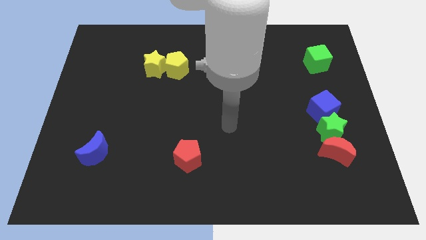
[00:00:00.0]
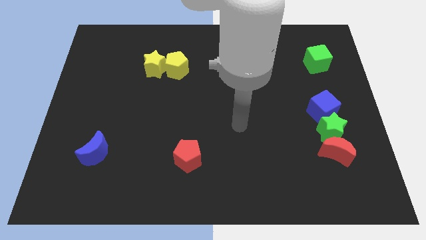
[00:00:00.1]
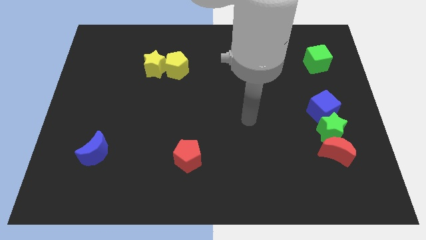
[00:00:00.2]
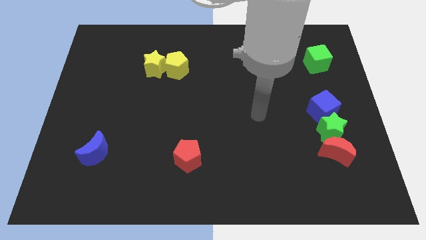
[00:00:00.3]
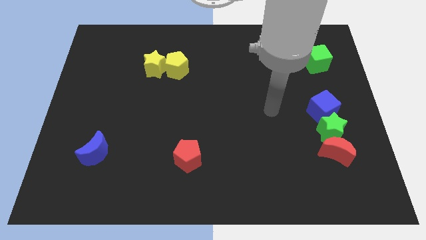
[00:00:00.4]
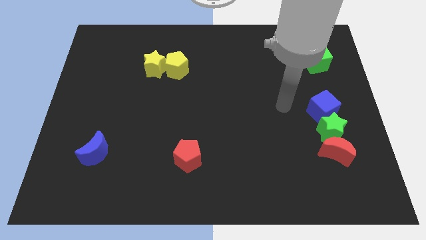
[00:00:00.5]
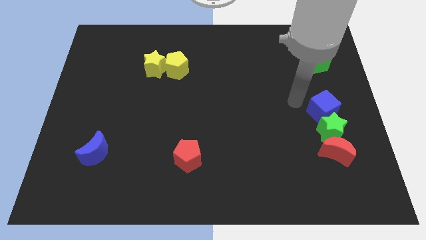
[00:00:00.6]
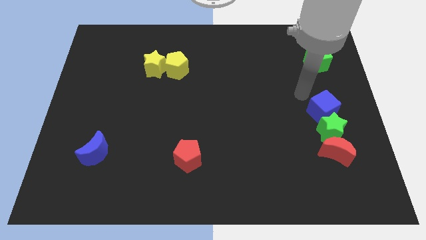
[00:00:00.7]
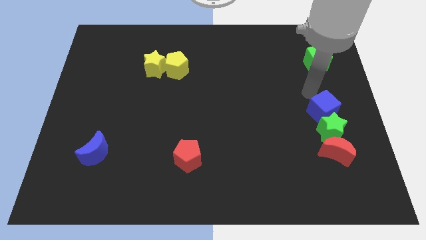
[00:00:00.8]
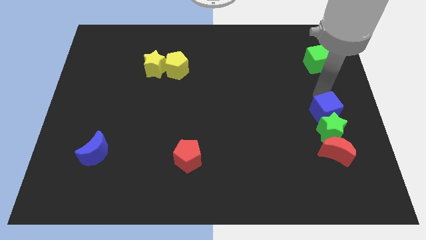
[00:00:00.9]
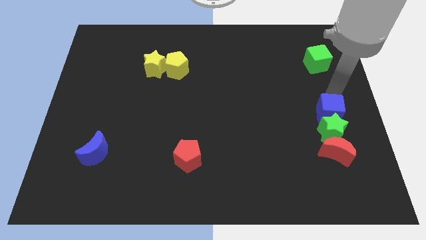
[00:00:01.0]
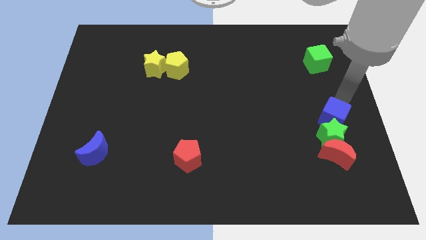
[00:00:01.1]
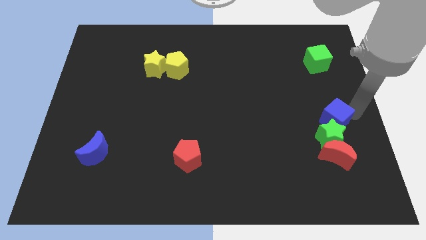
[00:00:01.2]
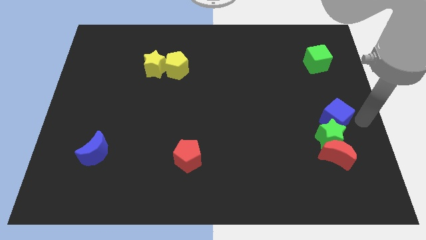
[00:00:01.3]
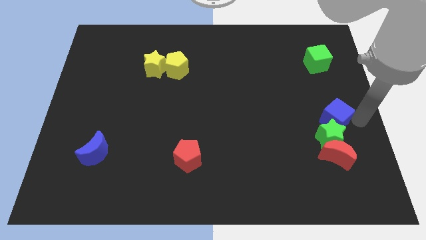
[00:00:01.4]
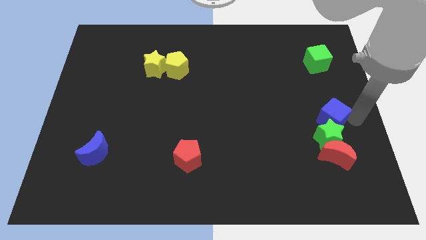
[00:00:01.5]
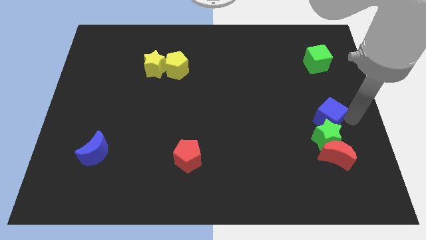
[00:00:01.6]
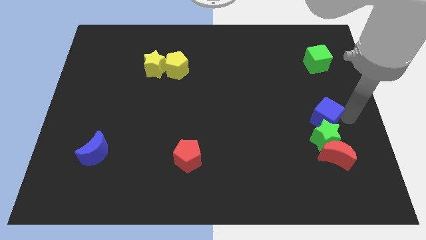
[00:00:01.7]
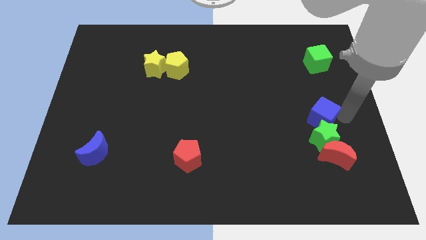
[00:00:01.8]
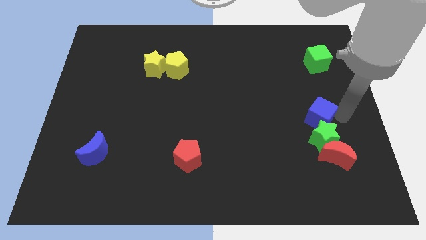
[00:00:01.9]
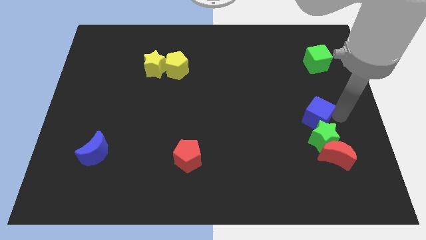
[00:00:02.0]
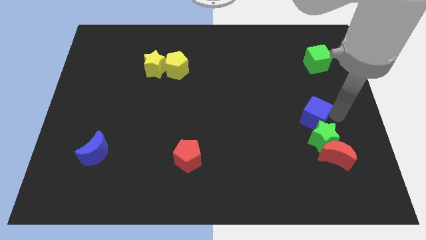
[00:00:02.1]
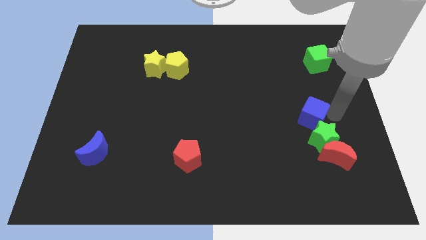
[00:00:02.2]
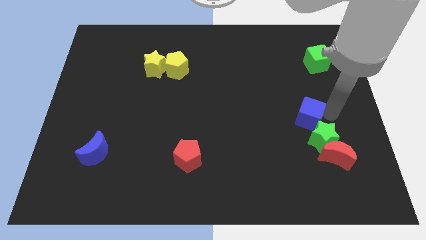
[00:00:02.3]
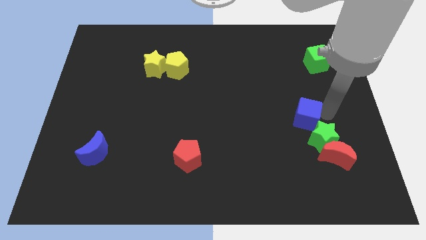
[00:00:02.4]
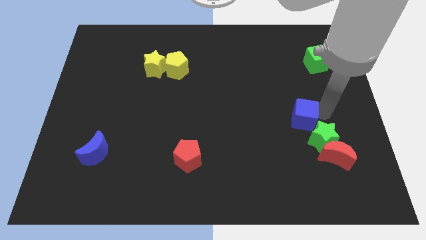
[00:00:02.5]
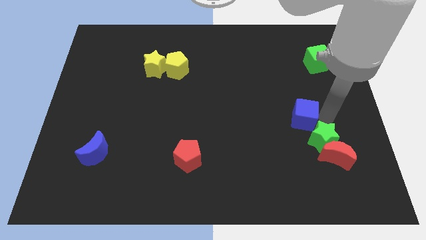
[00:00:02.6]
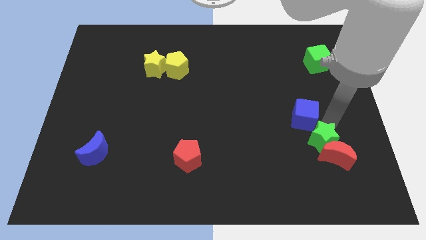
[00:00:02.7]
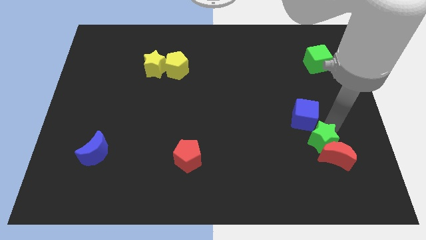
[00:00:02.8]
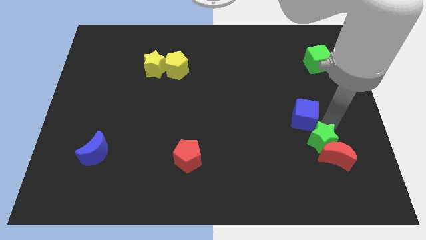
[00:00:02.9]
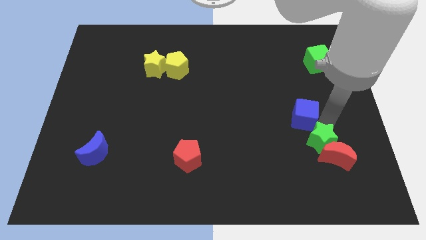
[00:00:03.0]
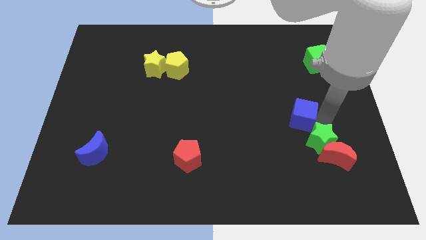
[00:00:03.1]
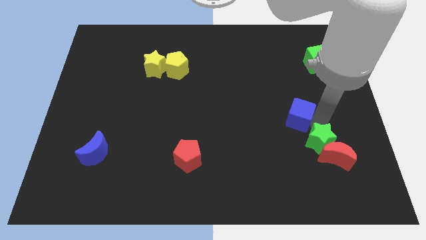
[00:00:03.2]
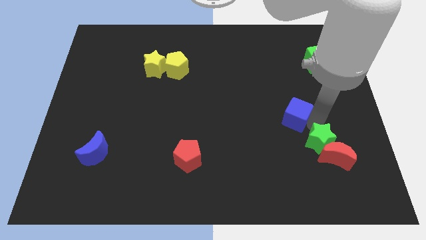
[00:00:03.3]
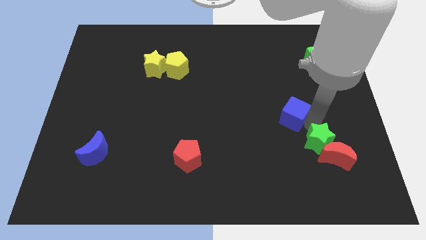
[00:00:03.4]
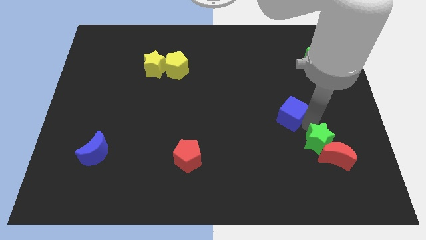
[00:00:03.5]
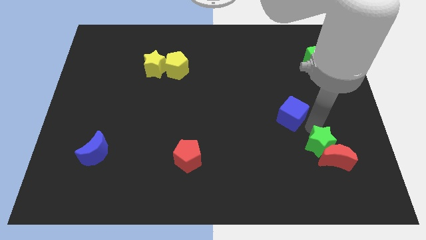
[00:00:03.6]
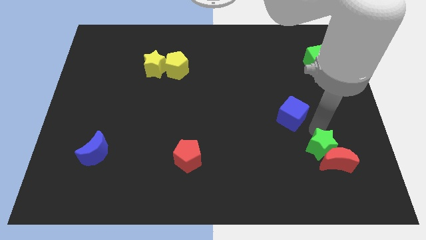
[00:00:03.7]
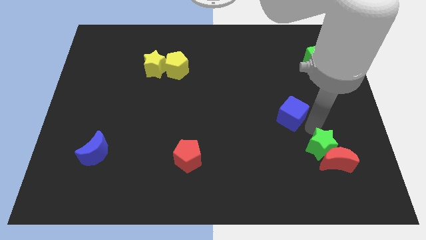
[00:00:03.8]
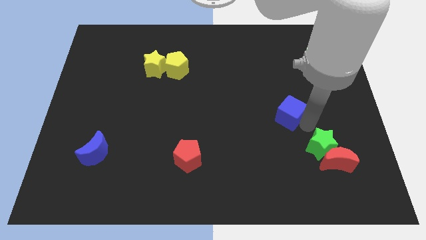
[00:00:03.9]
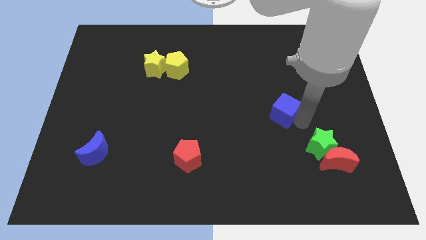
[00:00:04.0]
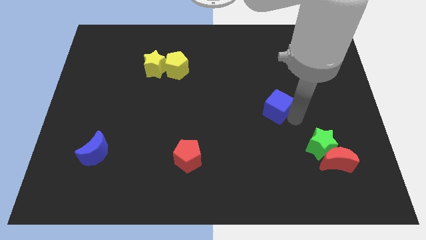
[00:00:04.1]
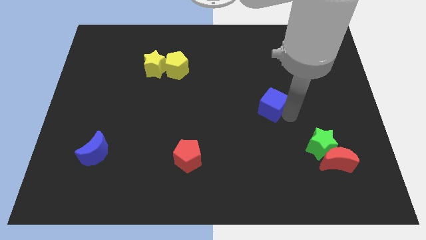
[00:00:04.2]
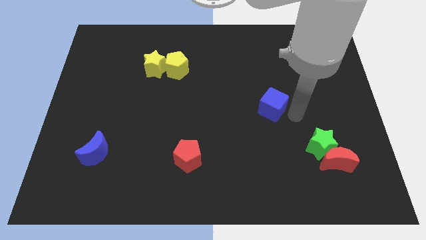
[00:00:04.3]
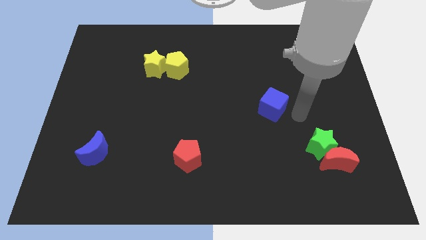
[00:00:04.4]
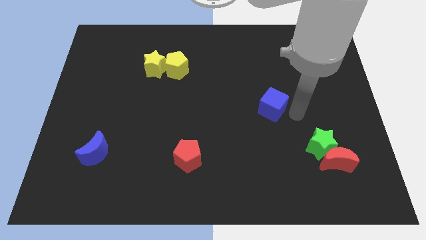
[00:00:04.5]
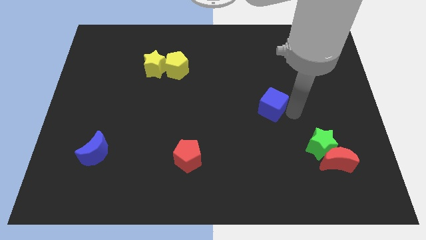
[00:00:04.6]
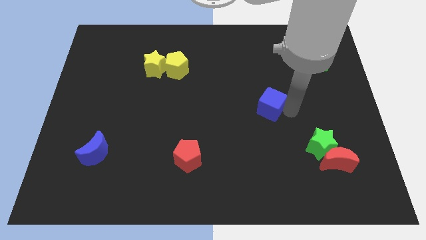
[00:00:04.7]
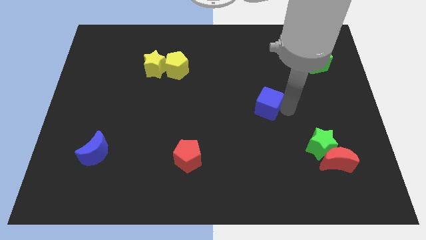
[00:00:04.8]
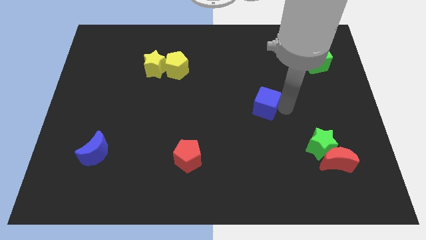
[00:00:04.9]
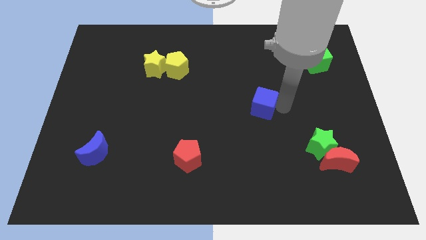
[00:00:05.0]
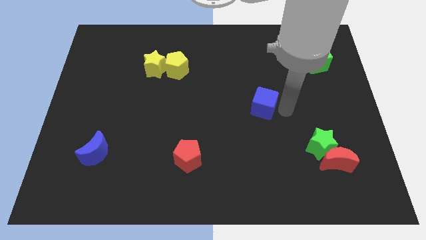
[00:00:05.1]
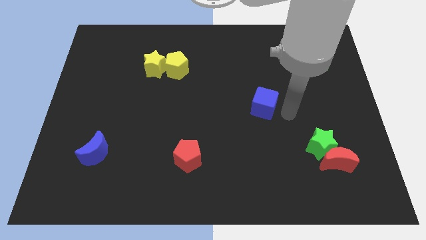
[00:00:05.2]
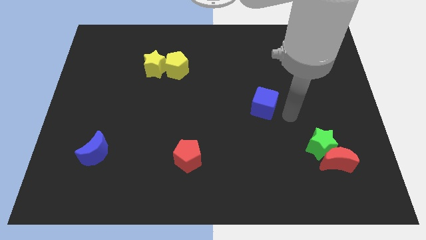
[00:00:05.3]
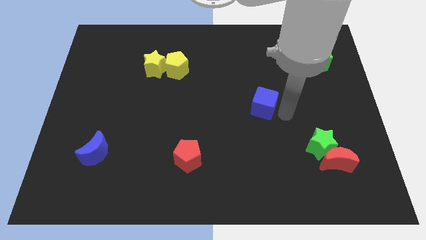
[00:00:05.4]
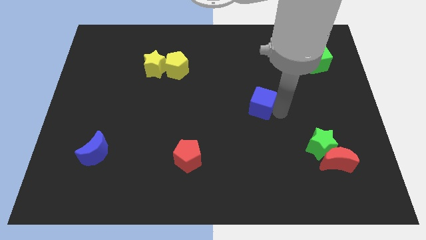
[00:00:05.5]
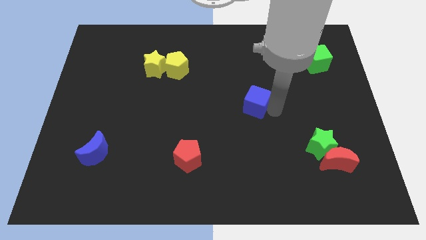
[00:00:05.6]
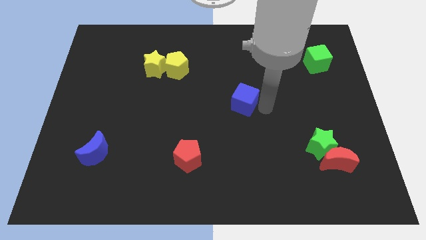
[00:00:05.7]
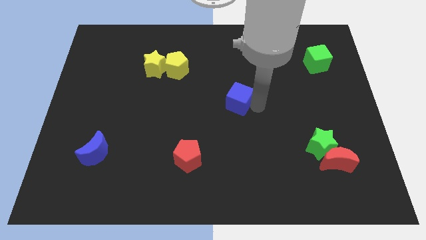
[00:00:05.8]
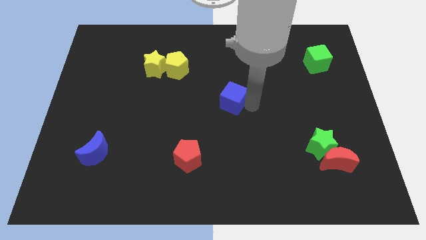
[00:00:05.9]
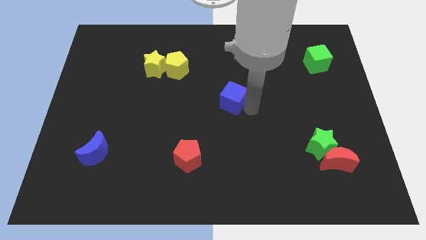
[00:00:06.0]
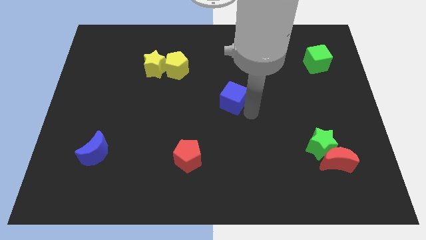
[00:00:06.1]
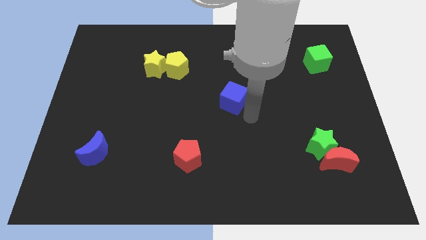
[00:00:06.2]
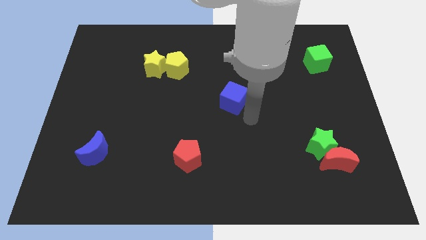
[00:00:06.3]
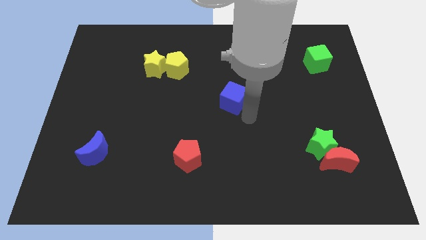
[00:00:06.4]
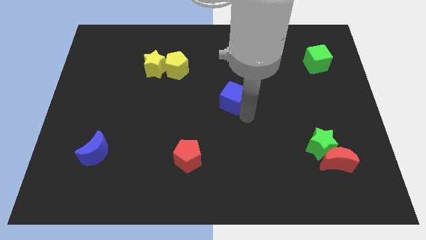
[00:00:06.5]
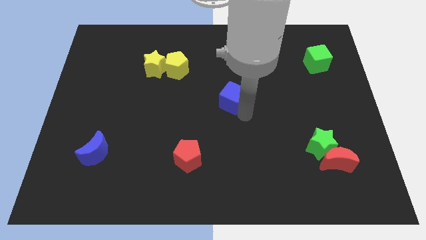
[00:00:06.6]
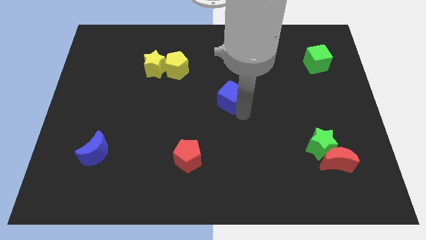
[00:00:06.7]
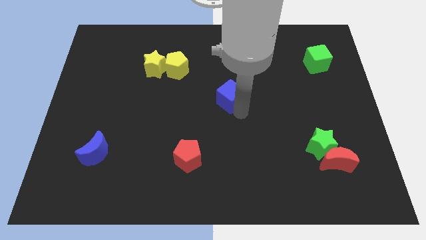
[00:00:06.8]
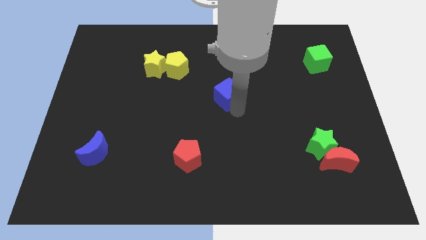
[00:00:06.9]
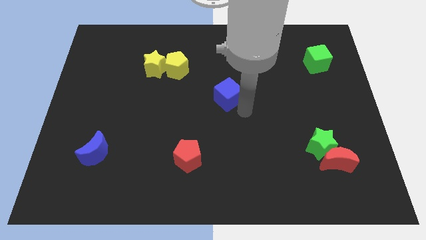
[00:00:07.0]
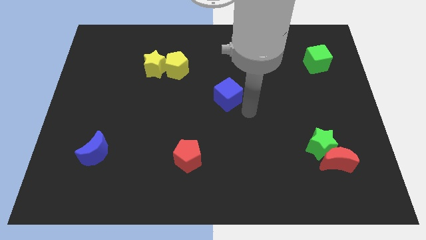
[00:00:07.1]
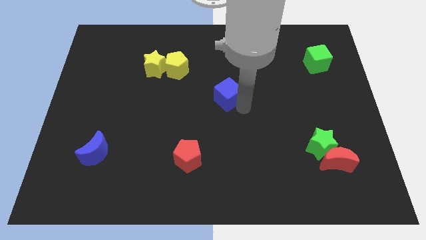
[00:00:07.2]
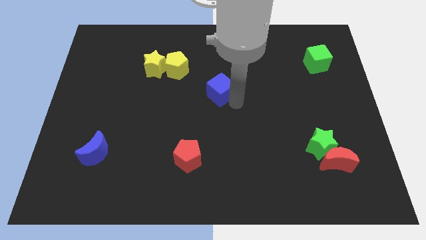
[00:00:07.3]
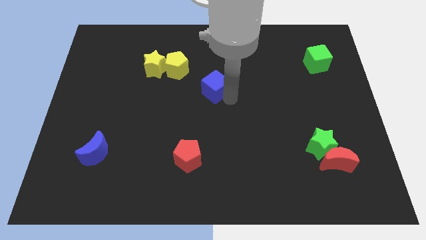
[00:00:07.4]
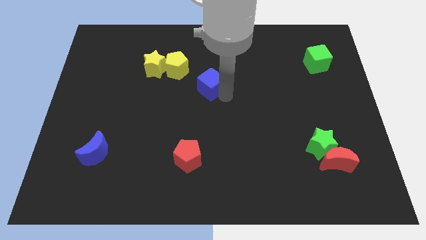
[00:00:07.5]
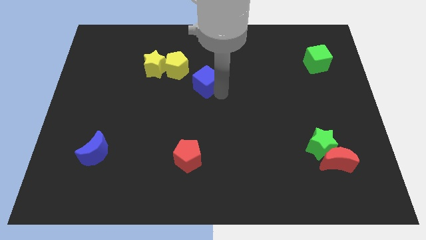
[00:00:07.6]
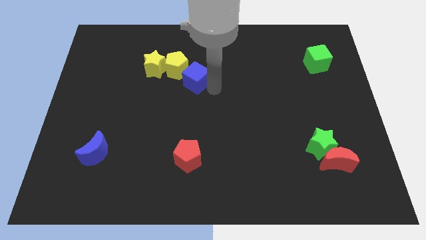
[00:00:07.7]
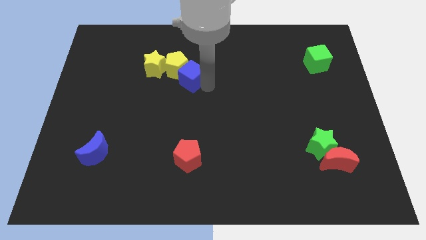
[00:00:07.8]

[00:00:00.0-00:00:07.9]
move the blue cube to the yellow pentagon
